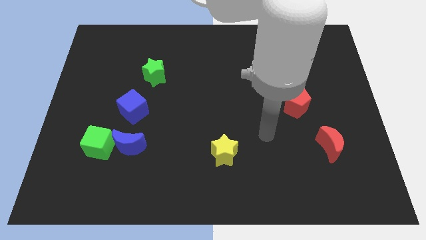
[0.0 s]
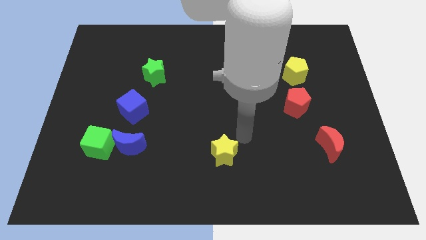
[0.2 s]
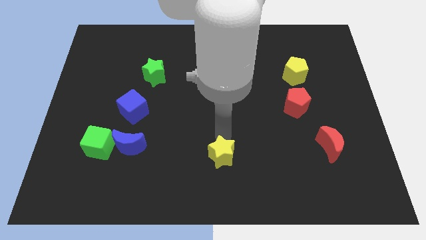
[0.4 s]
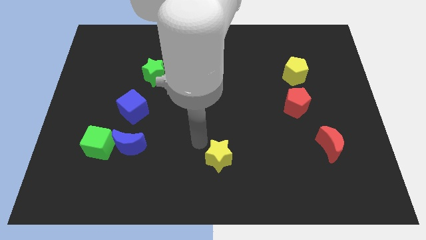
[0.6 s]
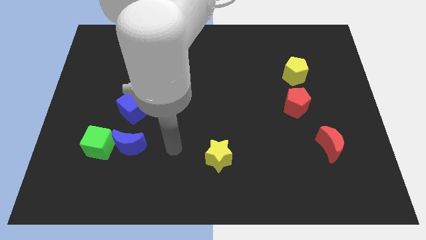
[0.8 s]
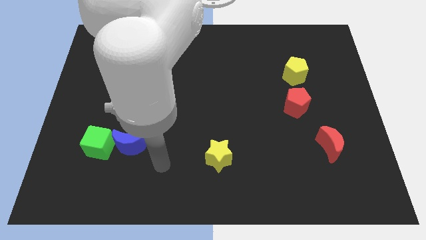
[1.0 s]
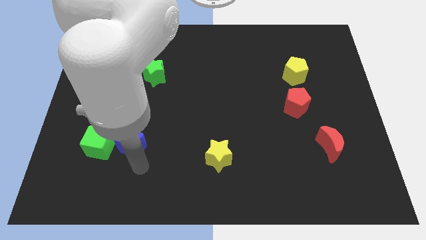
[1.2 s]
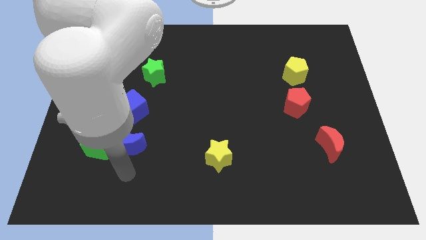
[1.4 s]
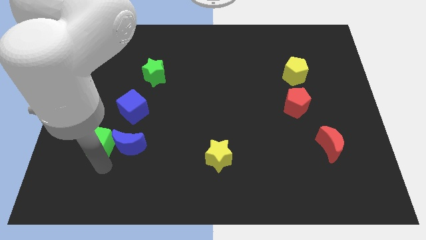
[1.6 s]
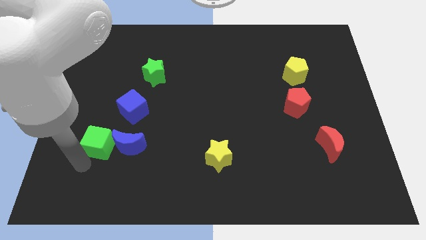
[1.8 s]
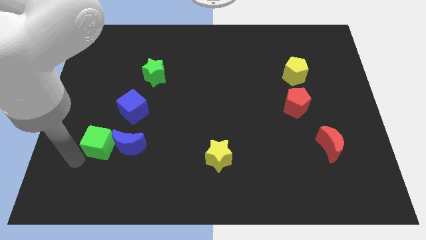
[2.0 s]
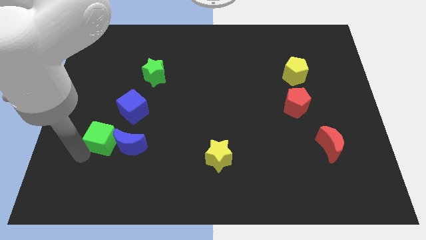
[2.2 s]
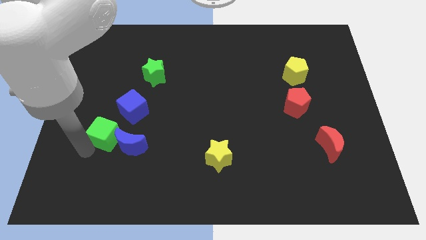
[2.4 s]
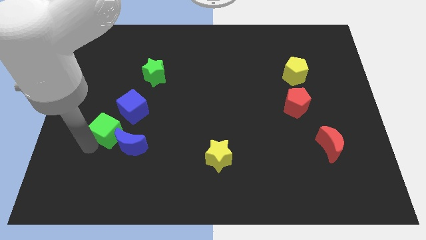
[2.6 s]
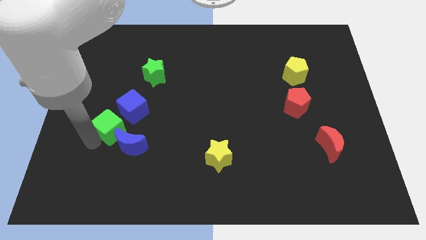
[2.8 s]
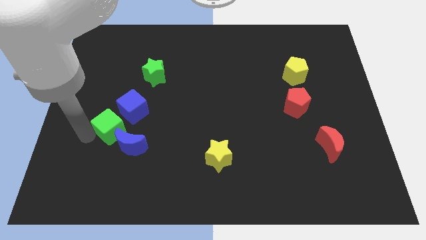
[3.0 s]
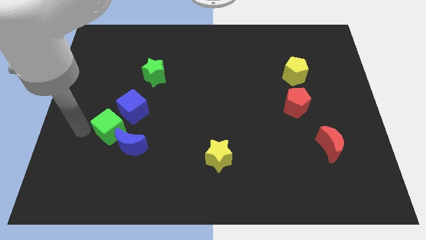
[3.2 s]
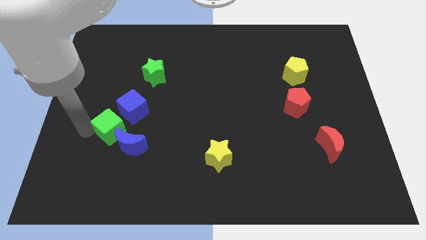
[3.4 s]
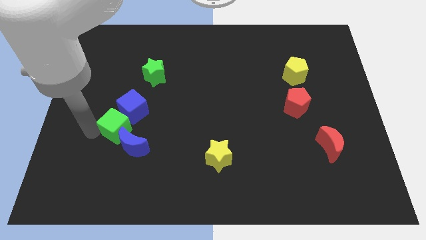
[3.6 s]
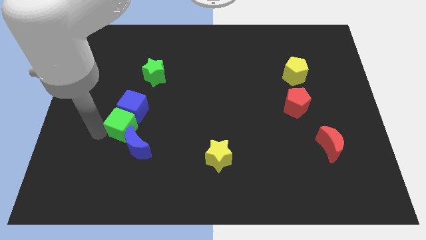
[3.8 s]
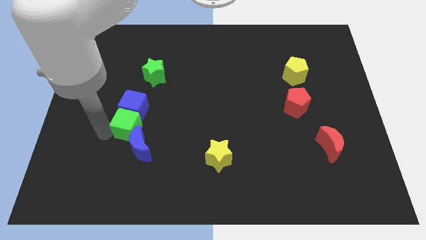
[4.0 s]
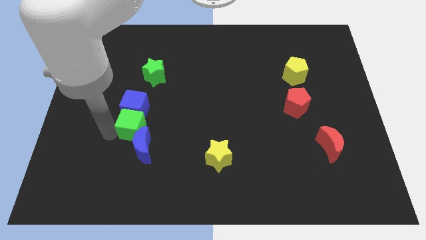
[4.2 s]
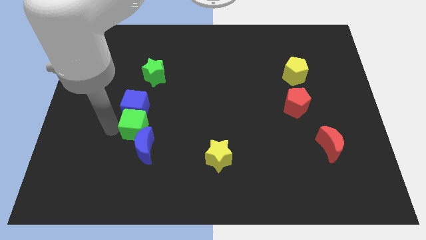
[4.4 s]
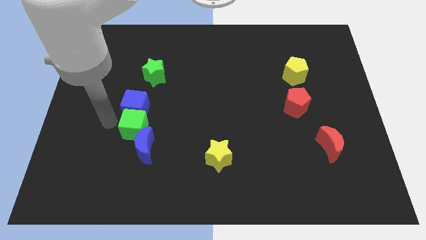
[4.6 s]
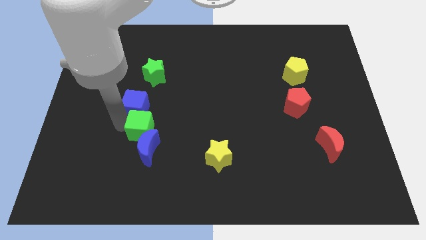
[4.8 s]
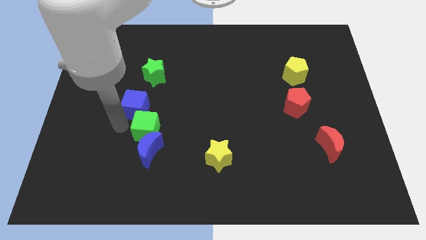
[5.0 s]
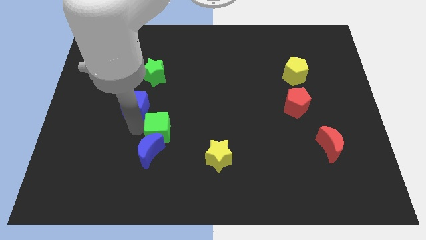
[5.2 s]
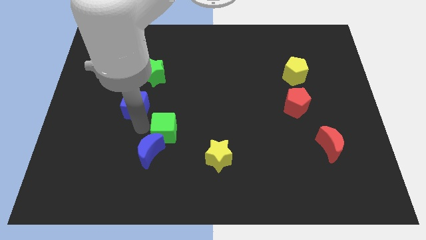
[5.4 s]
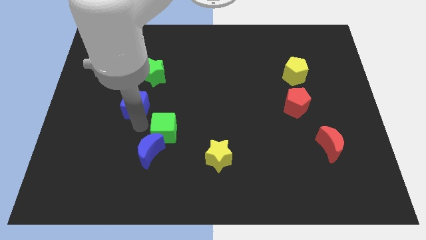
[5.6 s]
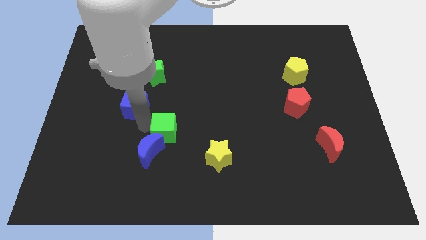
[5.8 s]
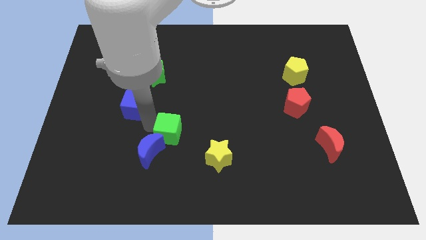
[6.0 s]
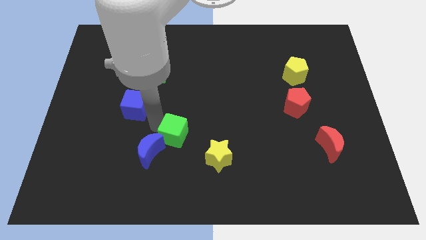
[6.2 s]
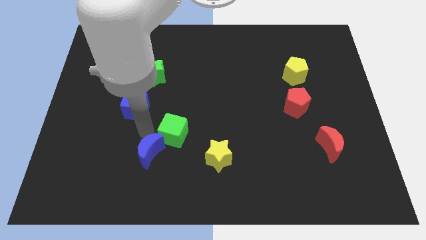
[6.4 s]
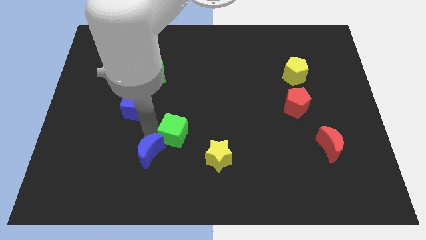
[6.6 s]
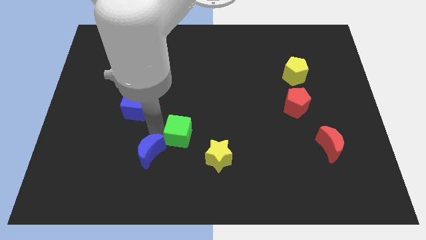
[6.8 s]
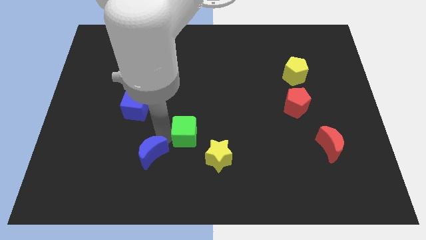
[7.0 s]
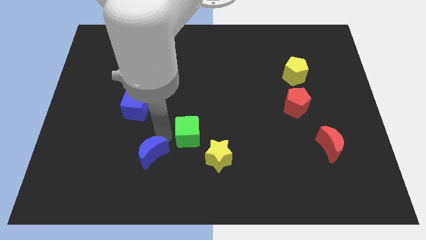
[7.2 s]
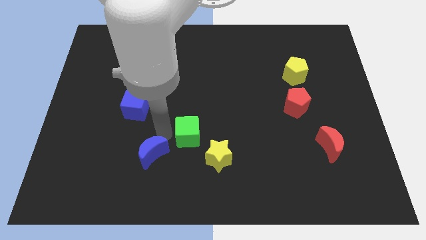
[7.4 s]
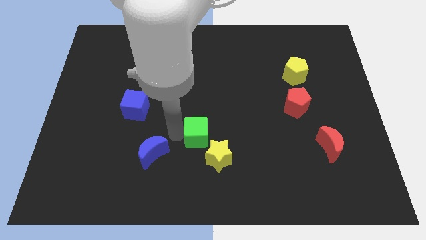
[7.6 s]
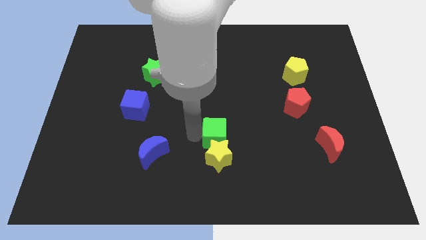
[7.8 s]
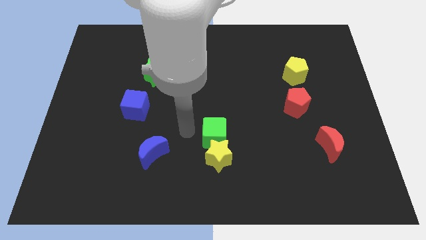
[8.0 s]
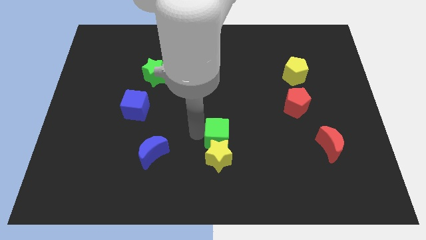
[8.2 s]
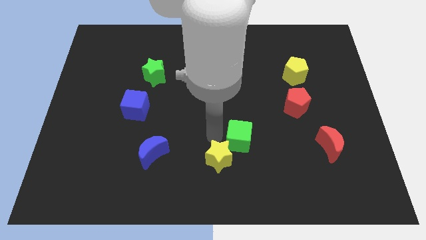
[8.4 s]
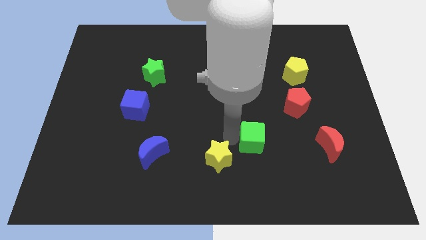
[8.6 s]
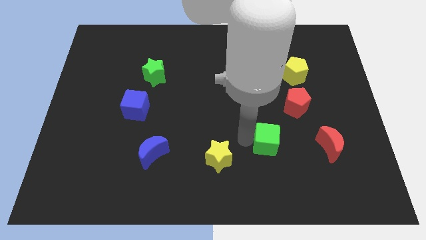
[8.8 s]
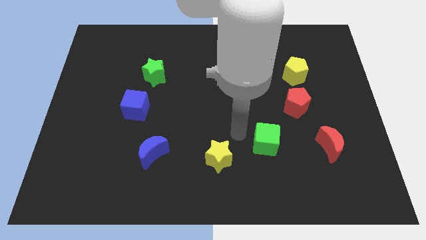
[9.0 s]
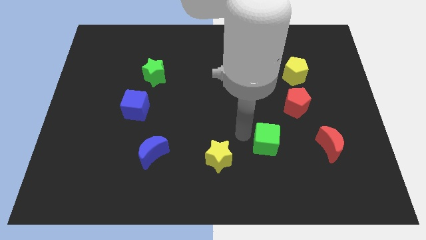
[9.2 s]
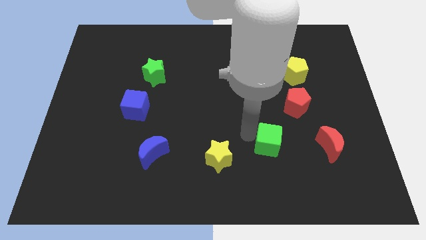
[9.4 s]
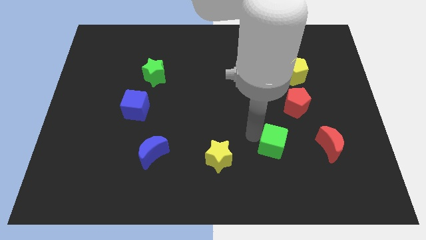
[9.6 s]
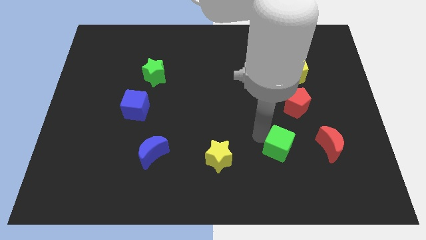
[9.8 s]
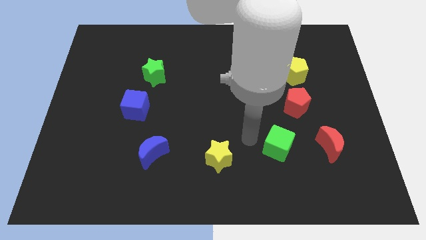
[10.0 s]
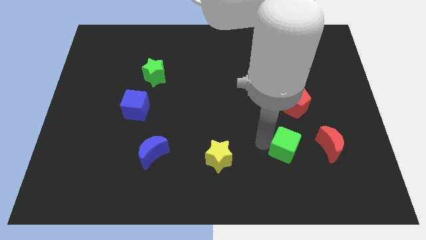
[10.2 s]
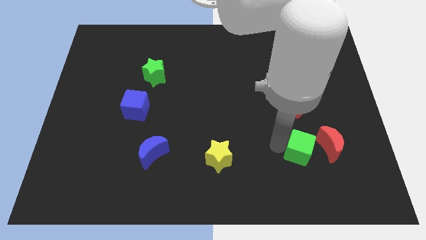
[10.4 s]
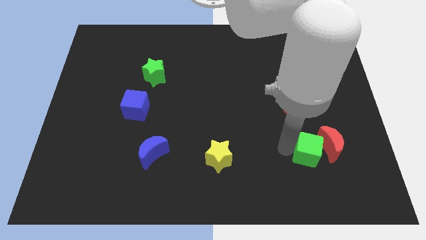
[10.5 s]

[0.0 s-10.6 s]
slide the green cube close to the red moon
